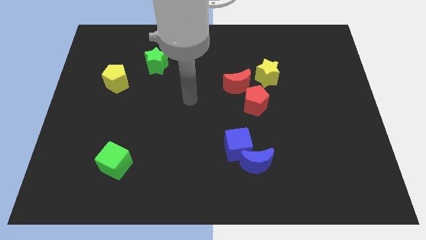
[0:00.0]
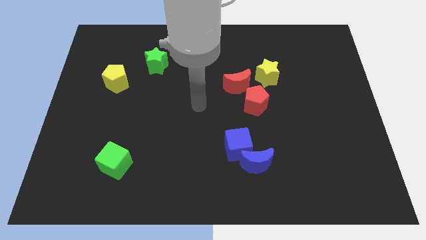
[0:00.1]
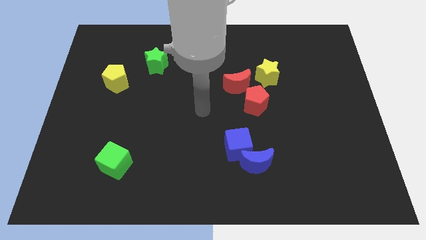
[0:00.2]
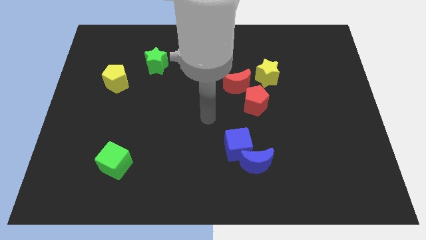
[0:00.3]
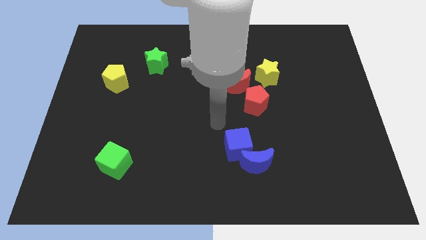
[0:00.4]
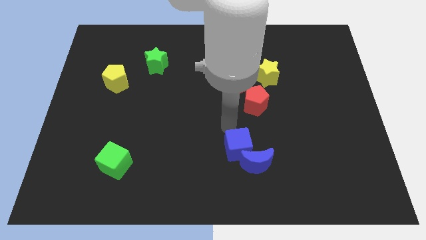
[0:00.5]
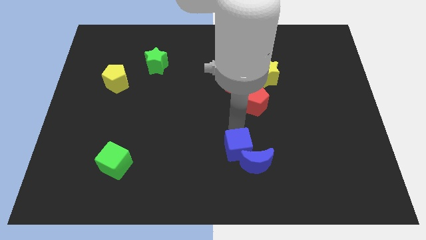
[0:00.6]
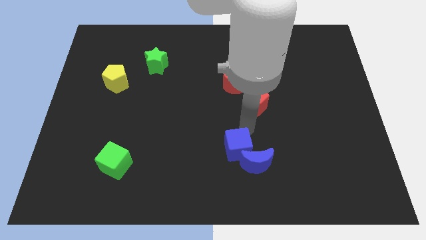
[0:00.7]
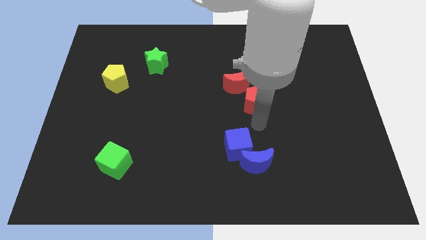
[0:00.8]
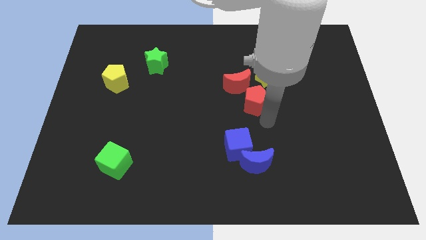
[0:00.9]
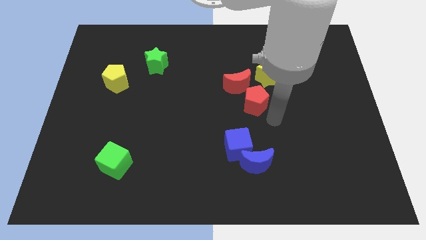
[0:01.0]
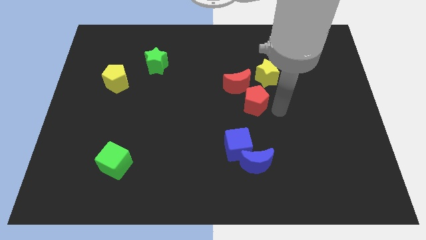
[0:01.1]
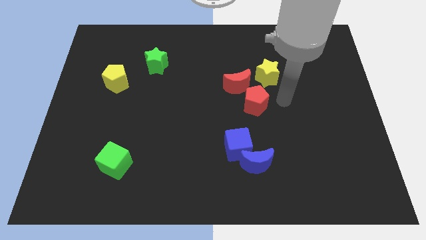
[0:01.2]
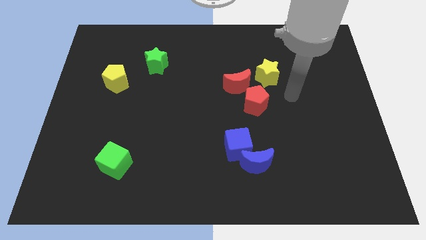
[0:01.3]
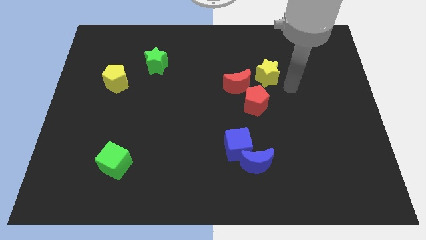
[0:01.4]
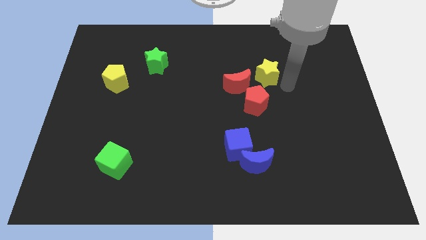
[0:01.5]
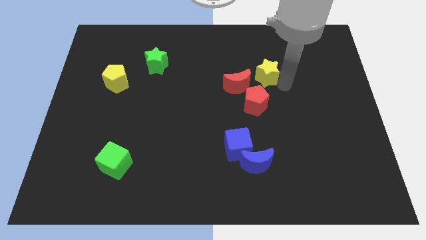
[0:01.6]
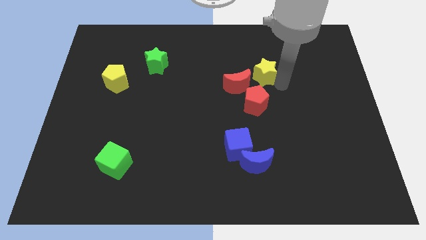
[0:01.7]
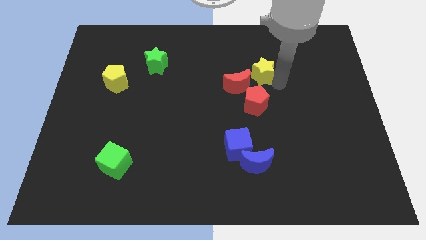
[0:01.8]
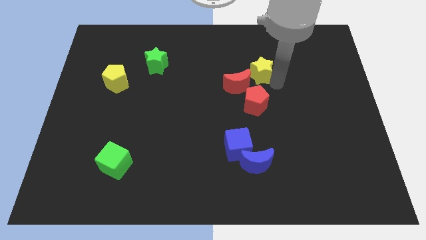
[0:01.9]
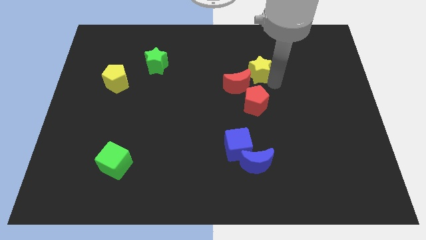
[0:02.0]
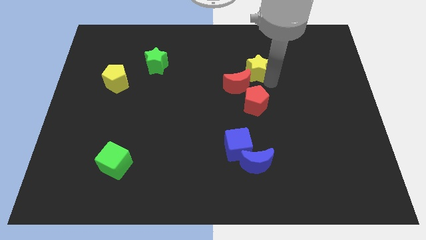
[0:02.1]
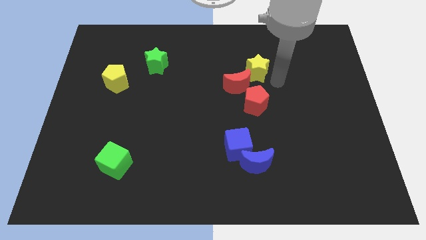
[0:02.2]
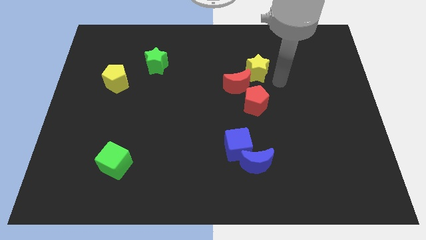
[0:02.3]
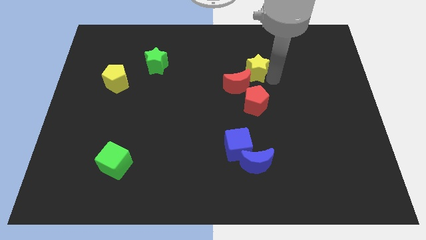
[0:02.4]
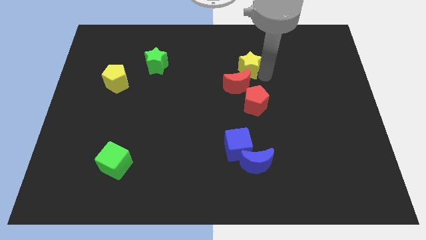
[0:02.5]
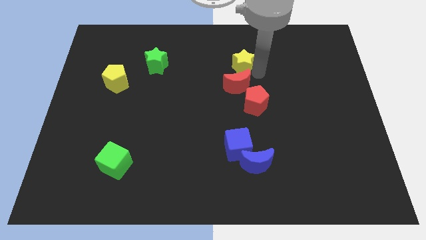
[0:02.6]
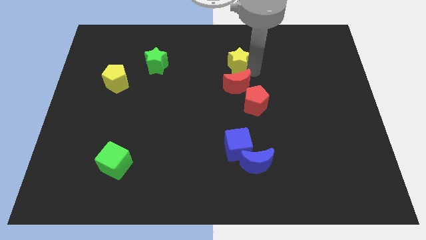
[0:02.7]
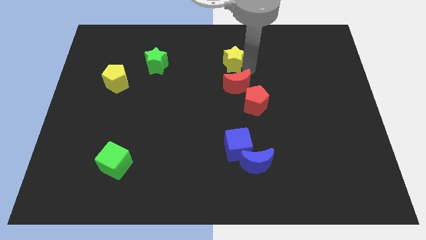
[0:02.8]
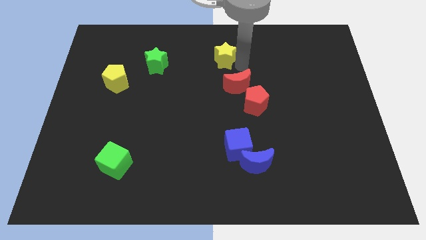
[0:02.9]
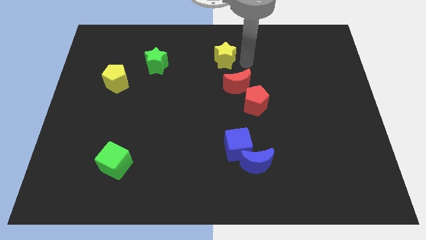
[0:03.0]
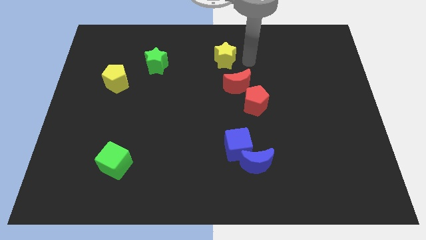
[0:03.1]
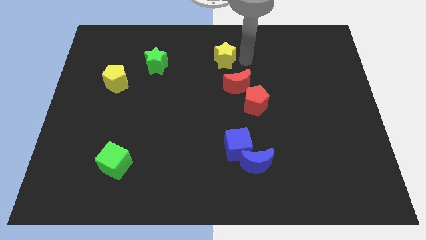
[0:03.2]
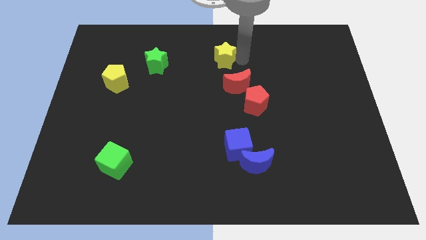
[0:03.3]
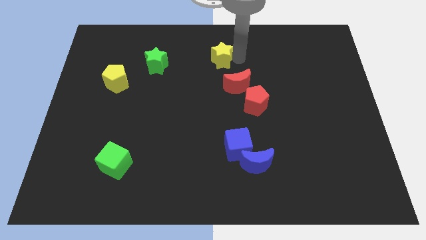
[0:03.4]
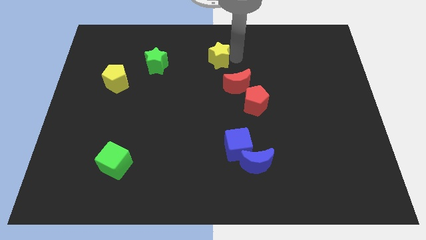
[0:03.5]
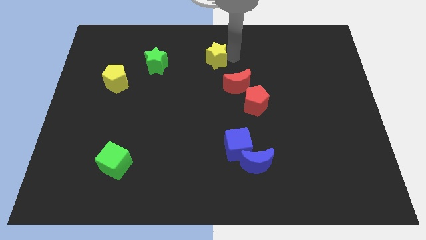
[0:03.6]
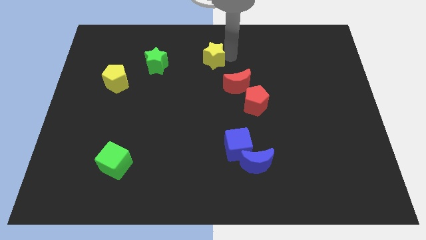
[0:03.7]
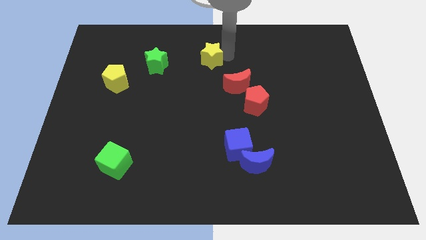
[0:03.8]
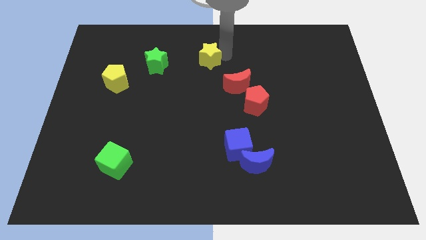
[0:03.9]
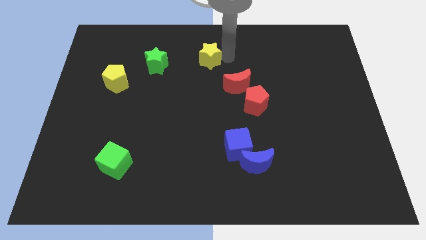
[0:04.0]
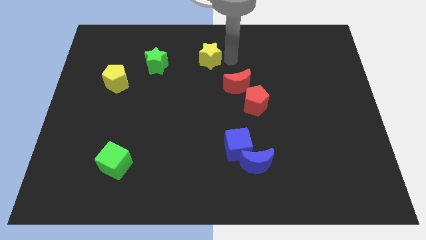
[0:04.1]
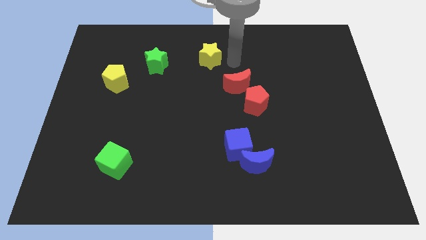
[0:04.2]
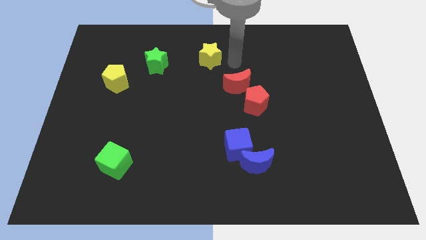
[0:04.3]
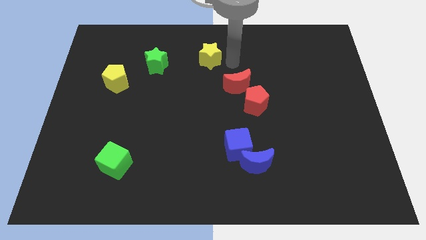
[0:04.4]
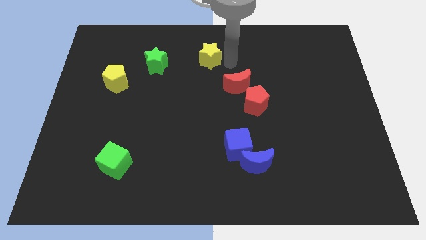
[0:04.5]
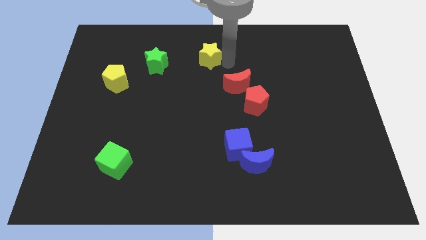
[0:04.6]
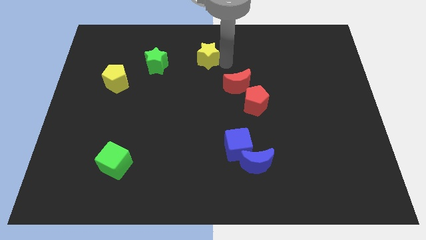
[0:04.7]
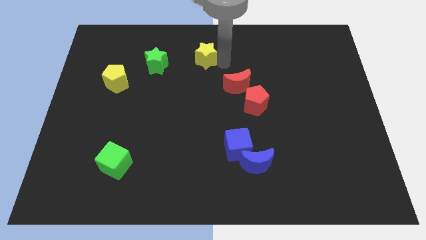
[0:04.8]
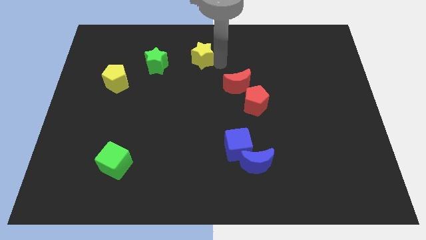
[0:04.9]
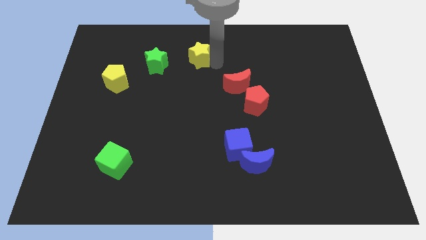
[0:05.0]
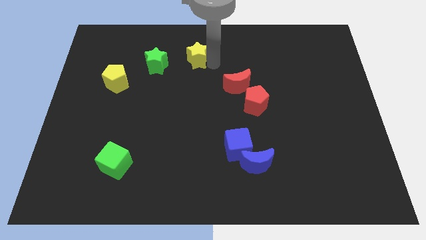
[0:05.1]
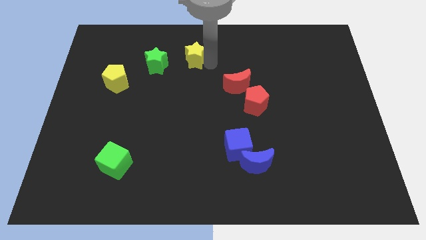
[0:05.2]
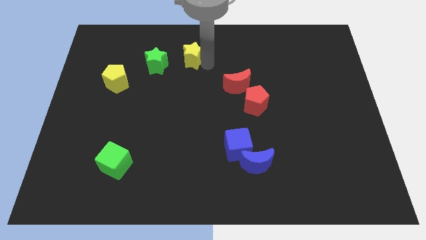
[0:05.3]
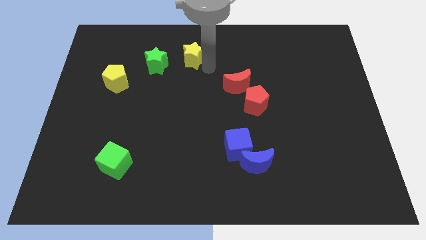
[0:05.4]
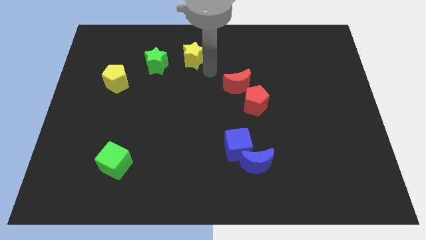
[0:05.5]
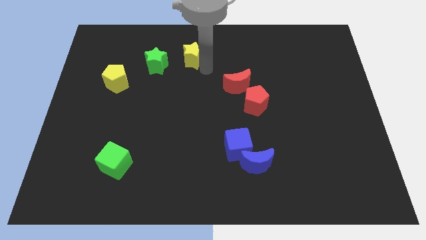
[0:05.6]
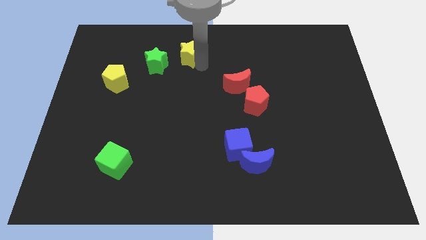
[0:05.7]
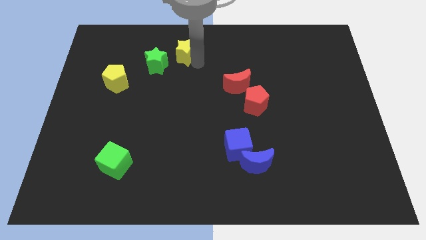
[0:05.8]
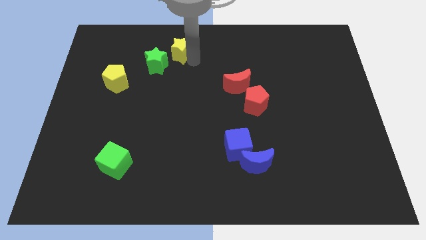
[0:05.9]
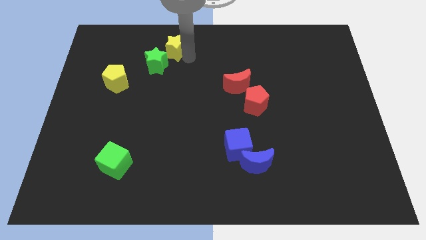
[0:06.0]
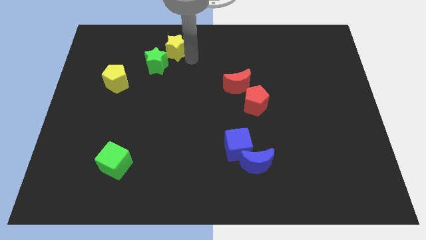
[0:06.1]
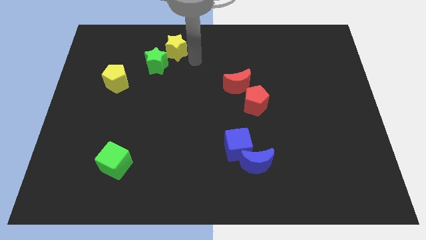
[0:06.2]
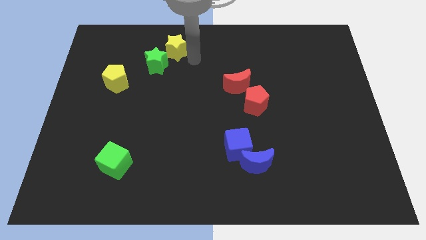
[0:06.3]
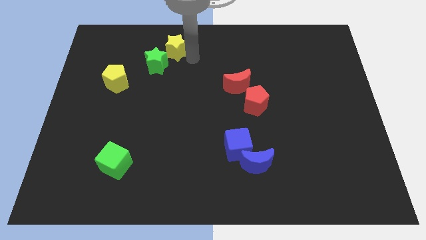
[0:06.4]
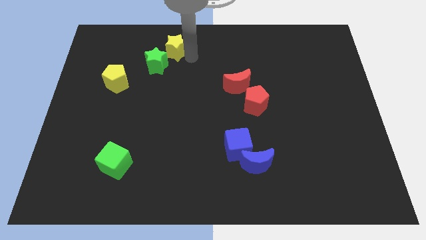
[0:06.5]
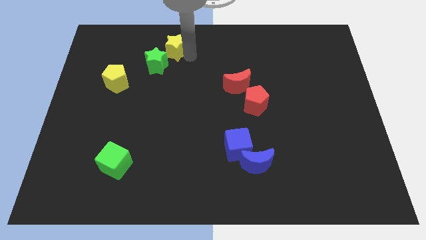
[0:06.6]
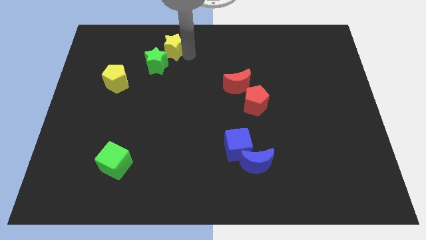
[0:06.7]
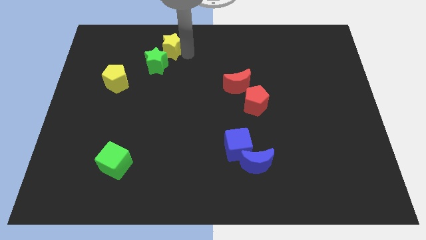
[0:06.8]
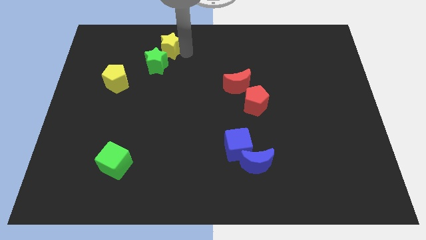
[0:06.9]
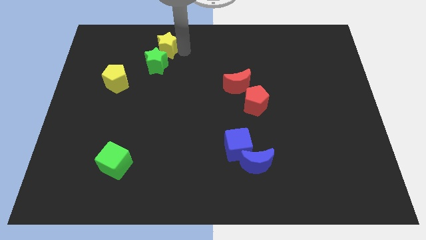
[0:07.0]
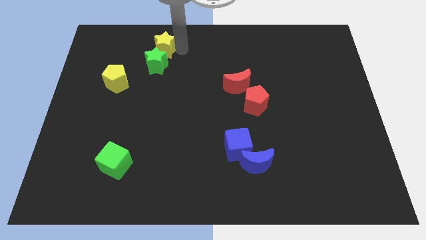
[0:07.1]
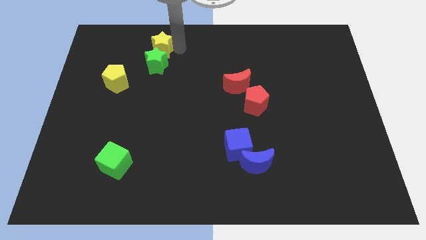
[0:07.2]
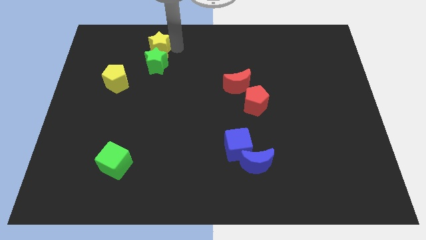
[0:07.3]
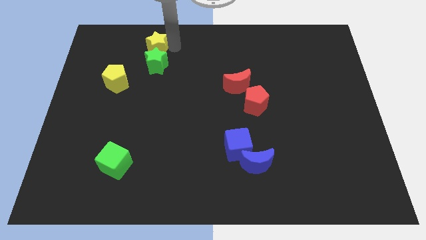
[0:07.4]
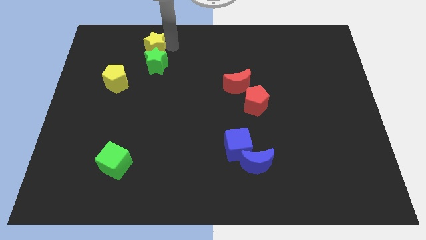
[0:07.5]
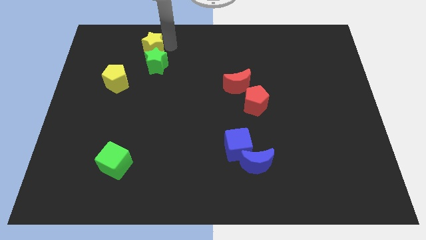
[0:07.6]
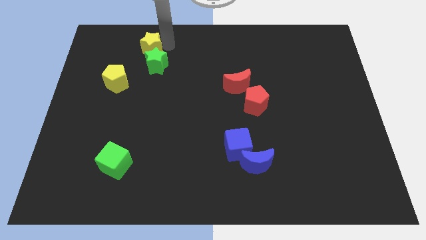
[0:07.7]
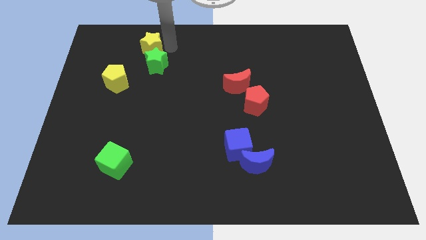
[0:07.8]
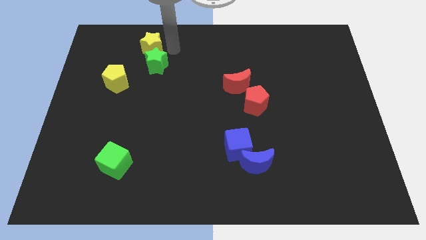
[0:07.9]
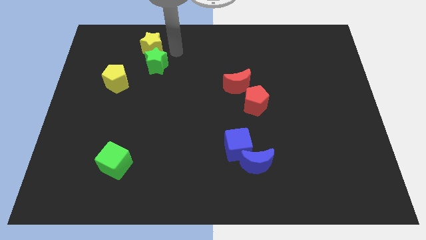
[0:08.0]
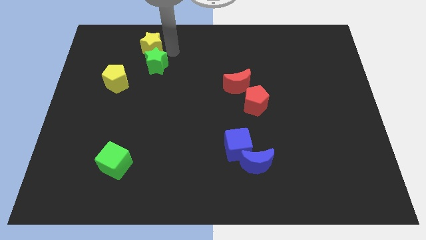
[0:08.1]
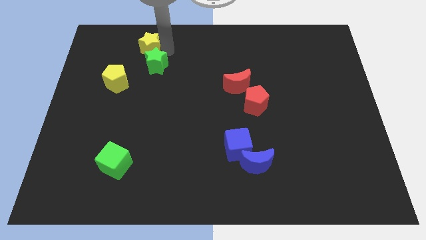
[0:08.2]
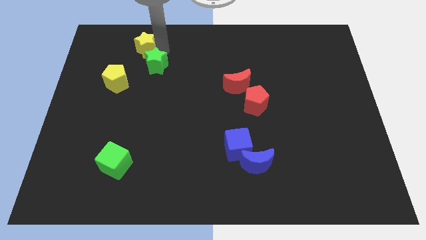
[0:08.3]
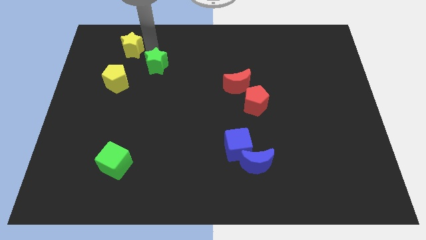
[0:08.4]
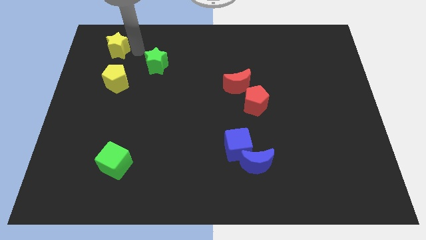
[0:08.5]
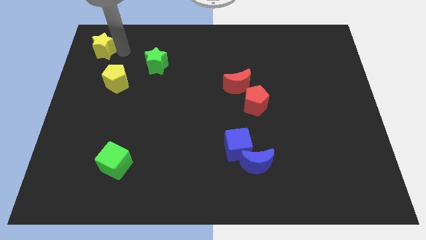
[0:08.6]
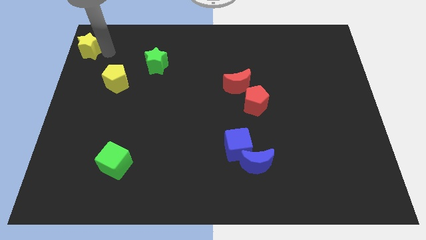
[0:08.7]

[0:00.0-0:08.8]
move the yellow star to the top left
